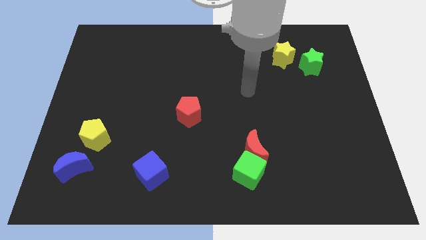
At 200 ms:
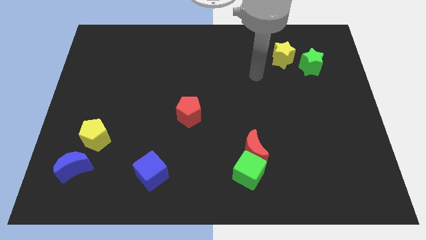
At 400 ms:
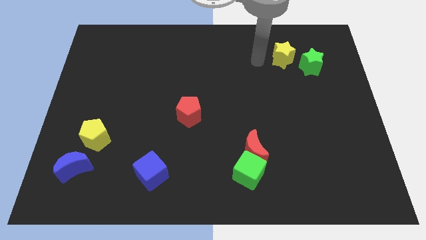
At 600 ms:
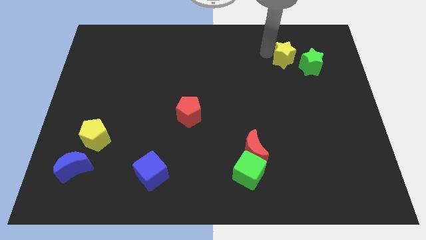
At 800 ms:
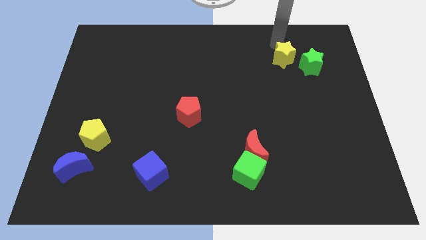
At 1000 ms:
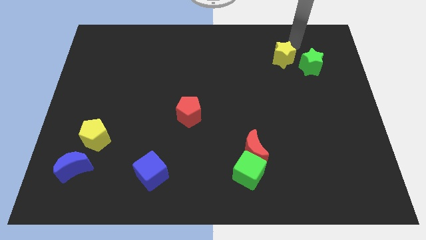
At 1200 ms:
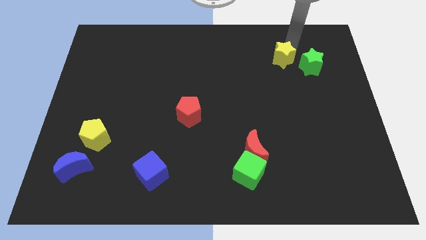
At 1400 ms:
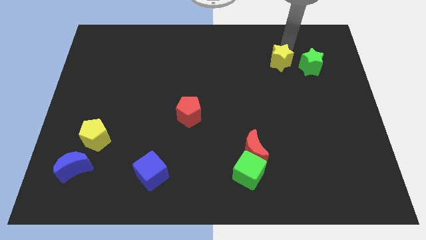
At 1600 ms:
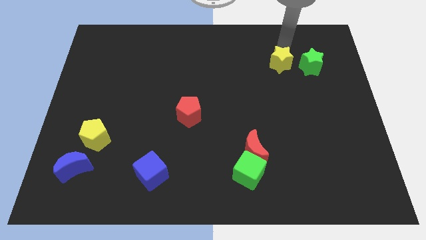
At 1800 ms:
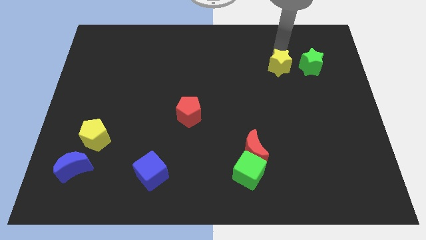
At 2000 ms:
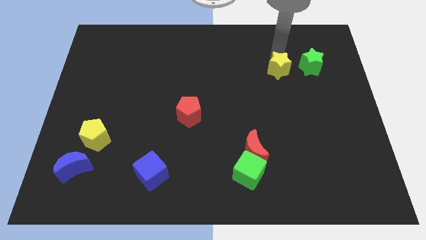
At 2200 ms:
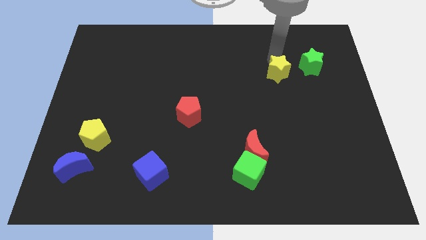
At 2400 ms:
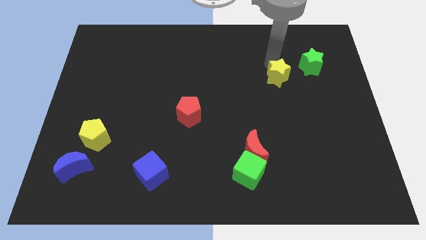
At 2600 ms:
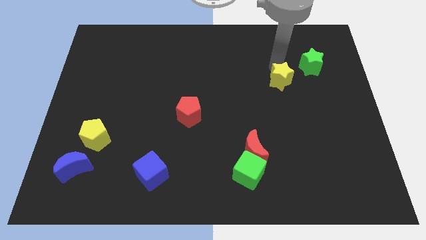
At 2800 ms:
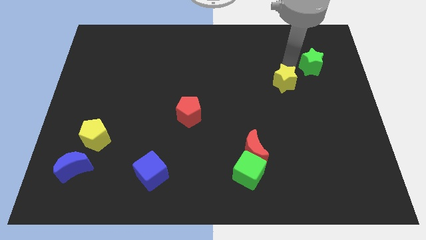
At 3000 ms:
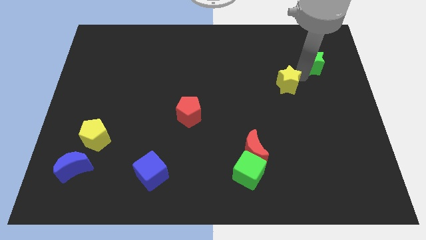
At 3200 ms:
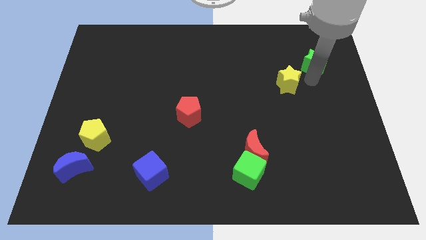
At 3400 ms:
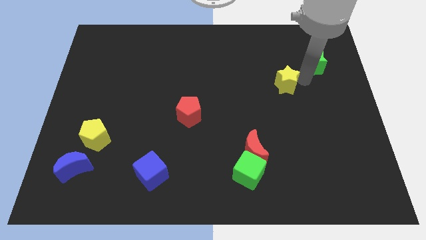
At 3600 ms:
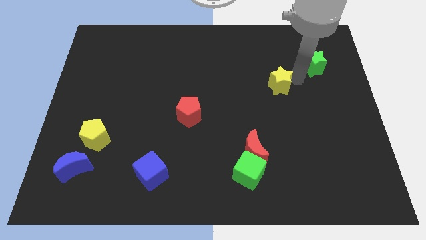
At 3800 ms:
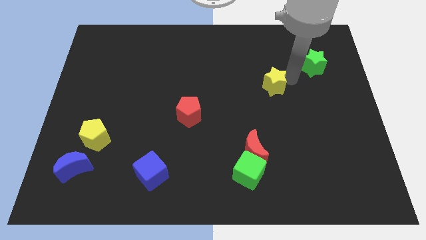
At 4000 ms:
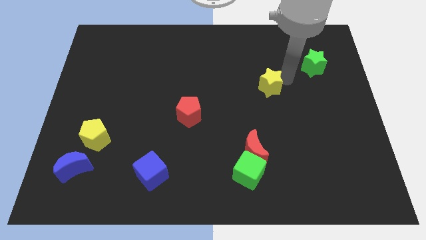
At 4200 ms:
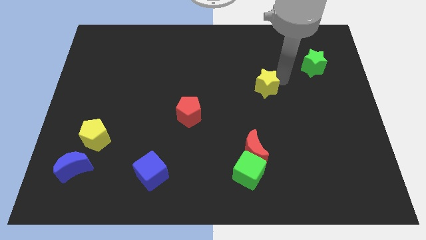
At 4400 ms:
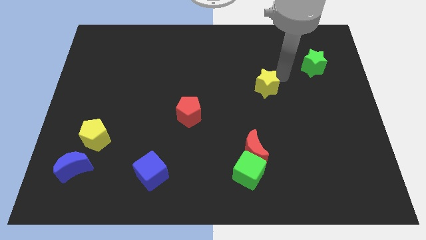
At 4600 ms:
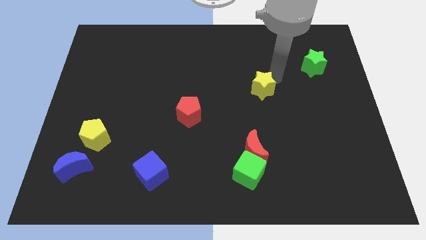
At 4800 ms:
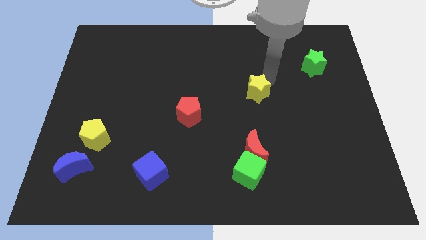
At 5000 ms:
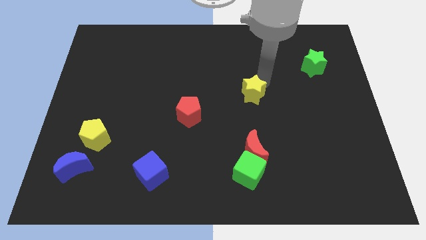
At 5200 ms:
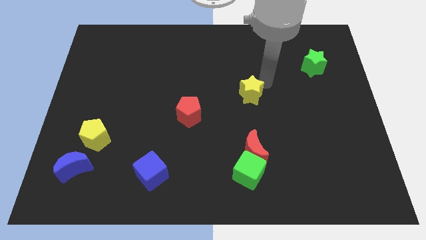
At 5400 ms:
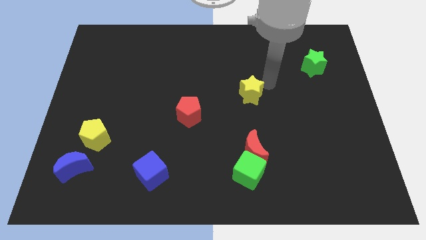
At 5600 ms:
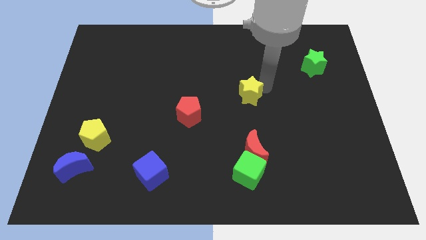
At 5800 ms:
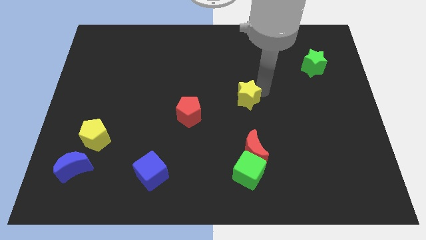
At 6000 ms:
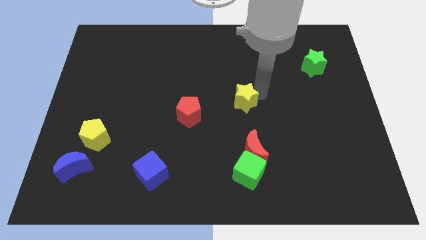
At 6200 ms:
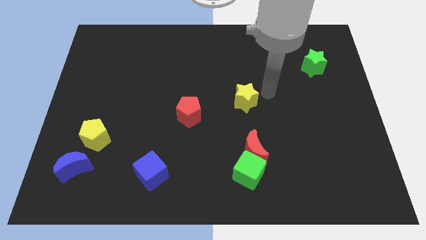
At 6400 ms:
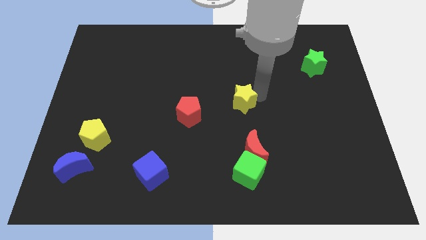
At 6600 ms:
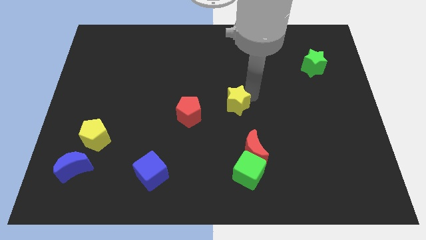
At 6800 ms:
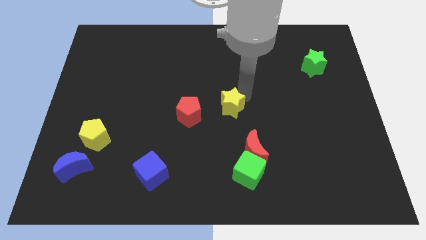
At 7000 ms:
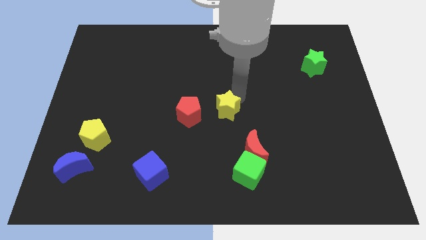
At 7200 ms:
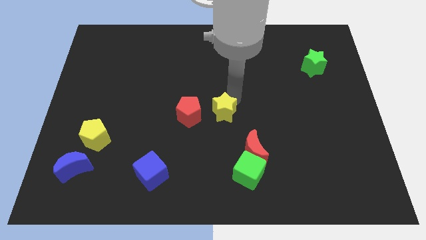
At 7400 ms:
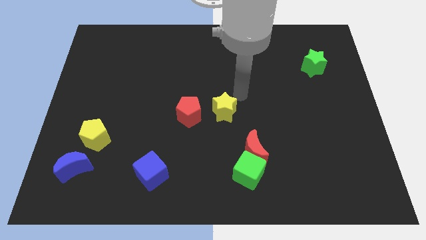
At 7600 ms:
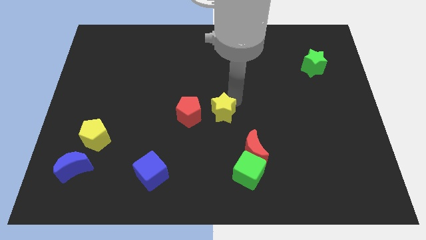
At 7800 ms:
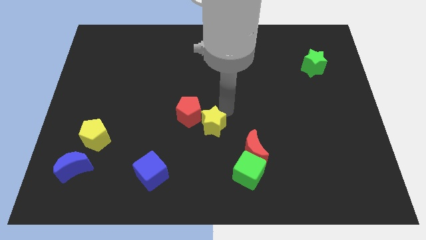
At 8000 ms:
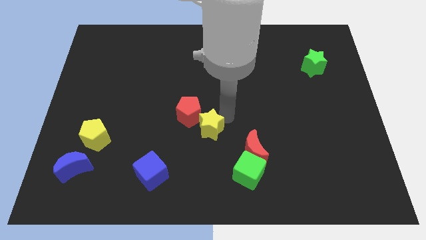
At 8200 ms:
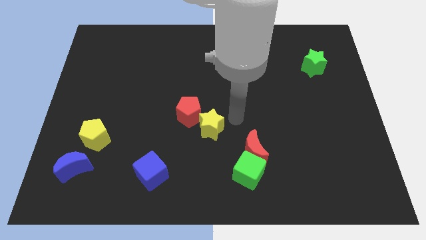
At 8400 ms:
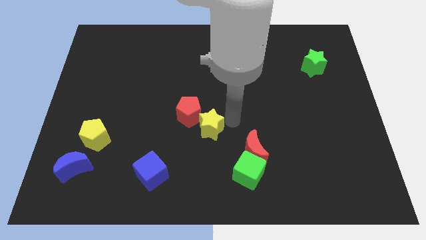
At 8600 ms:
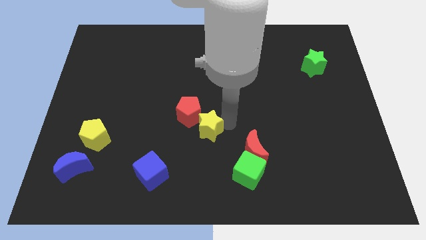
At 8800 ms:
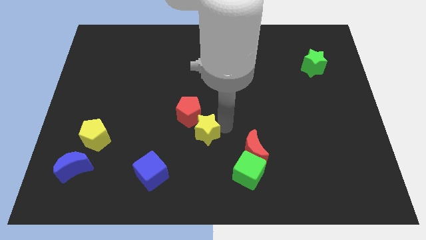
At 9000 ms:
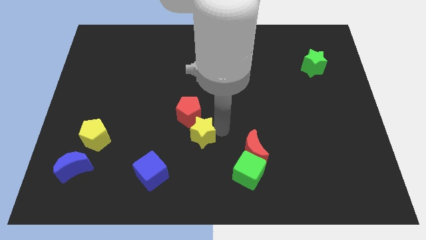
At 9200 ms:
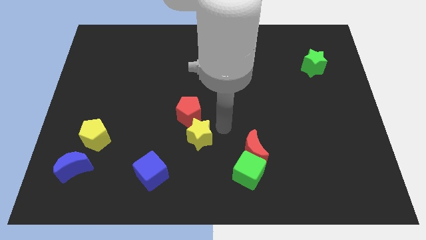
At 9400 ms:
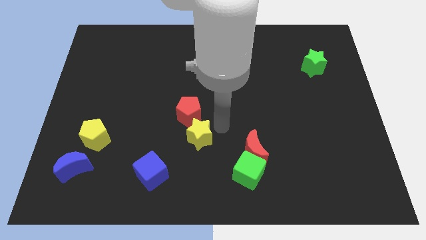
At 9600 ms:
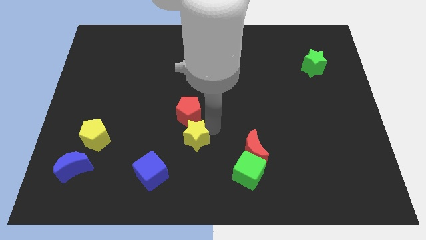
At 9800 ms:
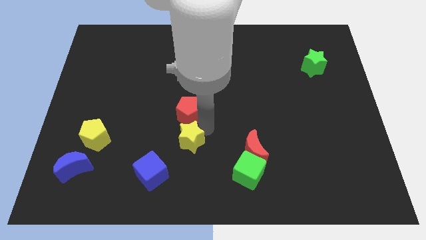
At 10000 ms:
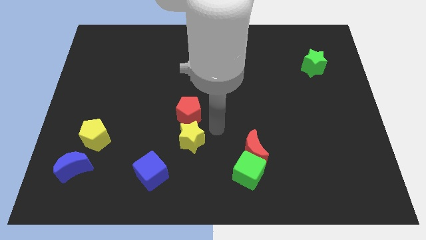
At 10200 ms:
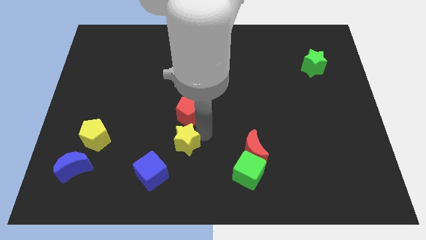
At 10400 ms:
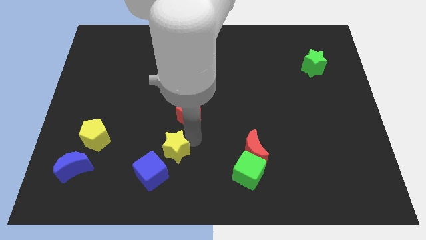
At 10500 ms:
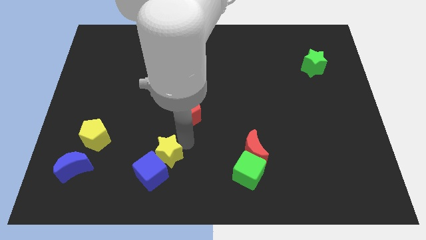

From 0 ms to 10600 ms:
move the yellow star next to the blue cube

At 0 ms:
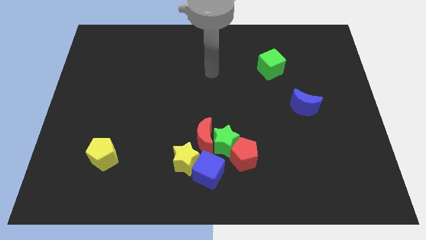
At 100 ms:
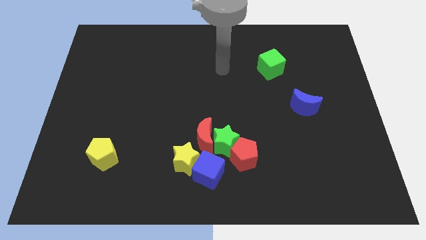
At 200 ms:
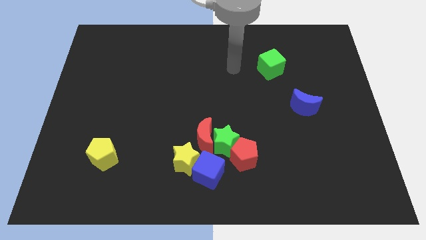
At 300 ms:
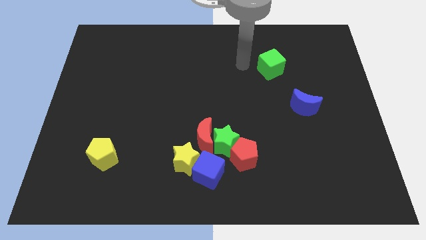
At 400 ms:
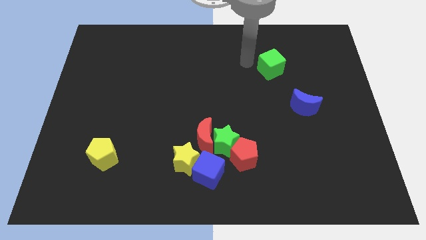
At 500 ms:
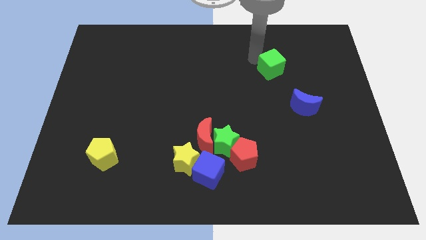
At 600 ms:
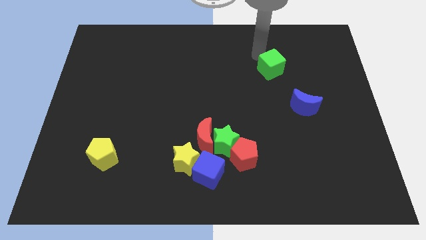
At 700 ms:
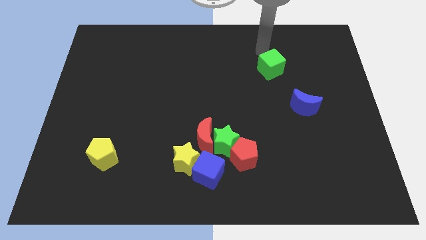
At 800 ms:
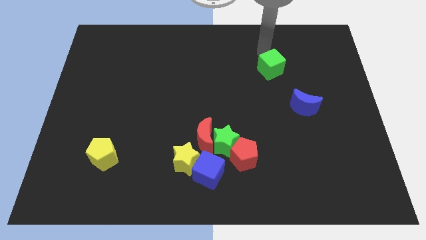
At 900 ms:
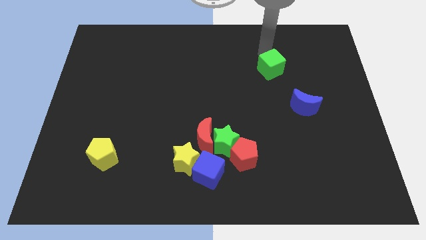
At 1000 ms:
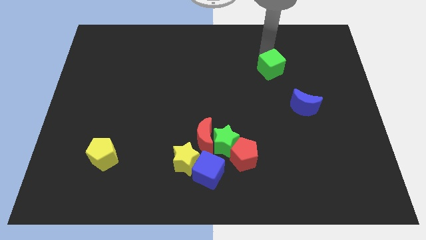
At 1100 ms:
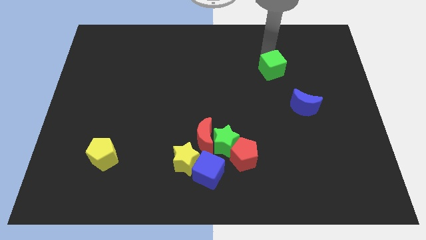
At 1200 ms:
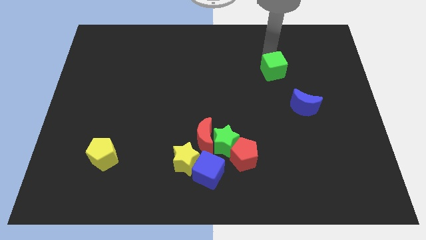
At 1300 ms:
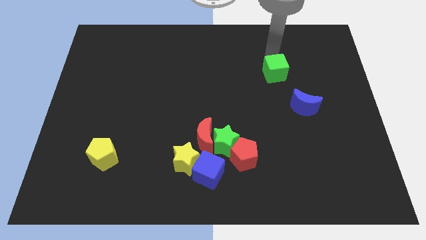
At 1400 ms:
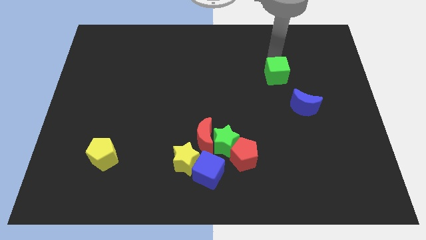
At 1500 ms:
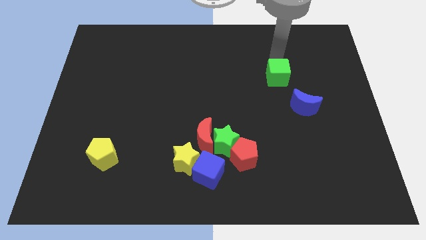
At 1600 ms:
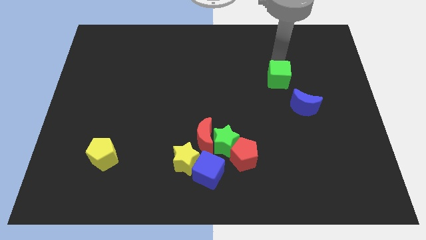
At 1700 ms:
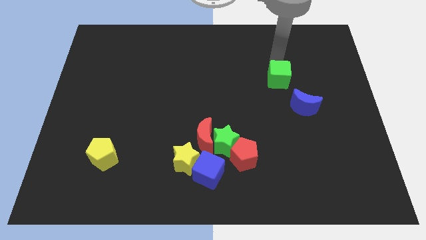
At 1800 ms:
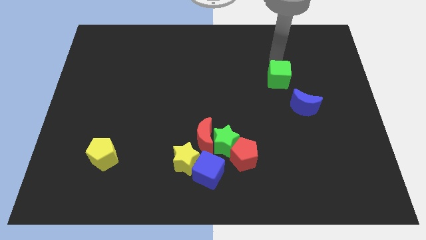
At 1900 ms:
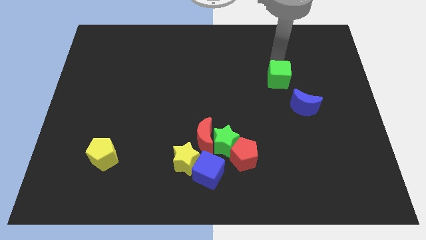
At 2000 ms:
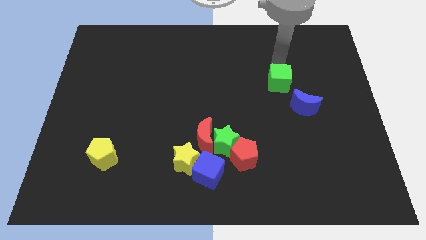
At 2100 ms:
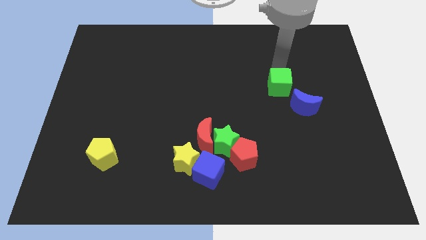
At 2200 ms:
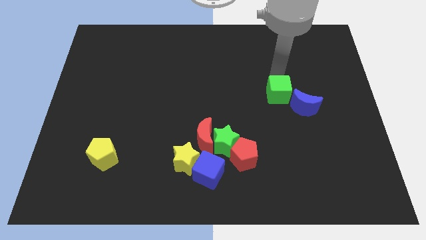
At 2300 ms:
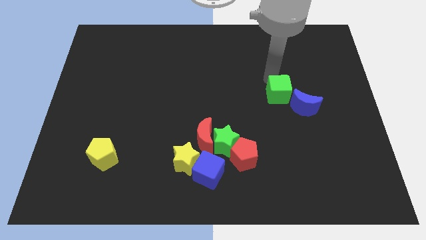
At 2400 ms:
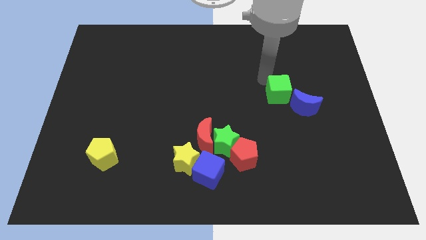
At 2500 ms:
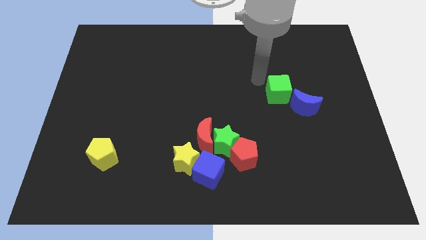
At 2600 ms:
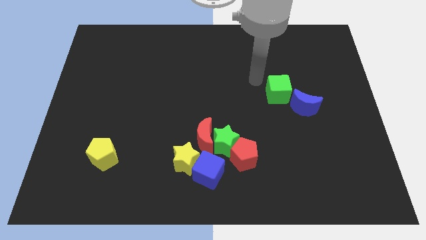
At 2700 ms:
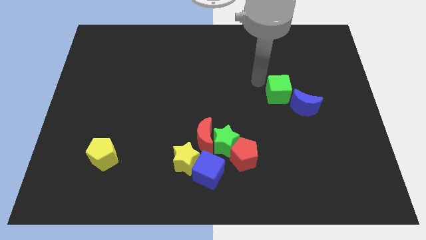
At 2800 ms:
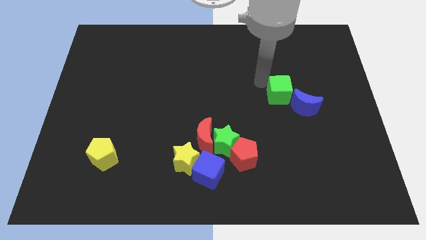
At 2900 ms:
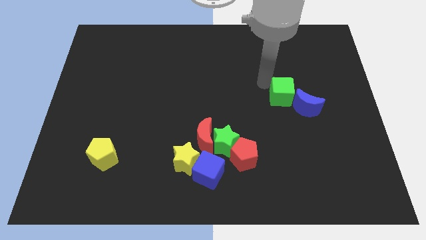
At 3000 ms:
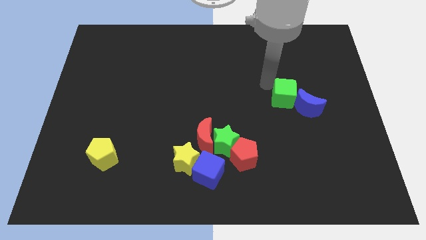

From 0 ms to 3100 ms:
put the green cube close to the blue moon

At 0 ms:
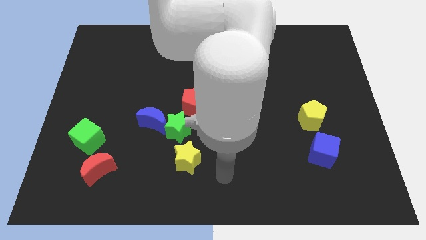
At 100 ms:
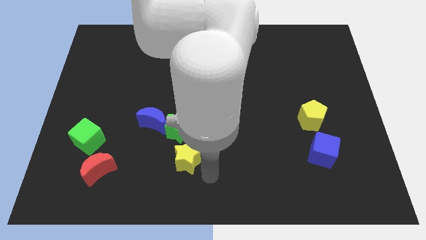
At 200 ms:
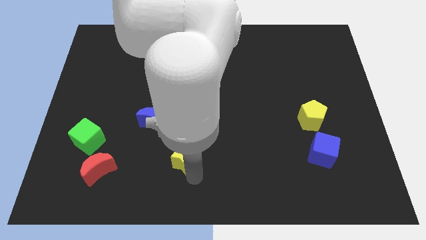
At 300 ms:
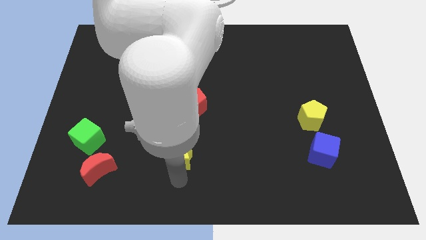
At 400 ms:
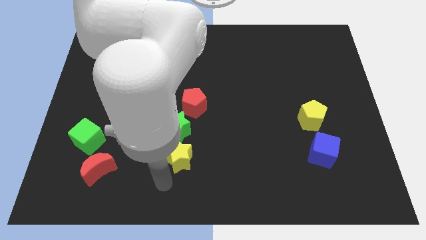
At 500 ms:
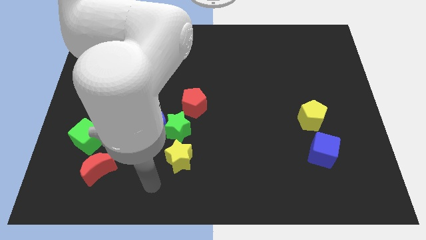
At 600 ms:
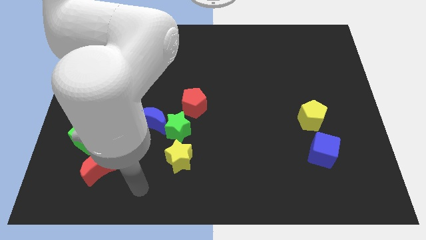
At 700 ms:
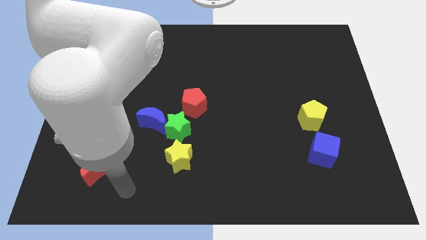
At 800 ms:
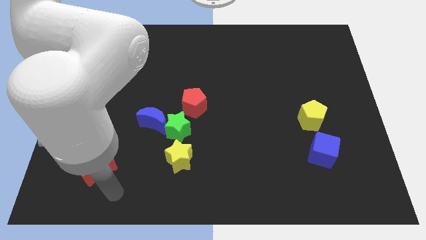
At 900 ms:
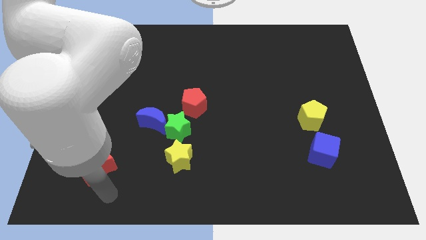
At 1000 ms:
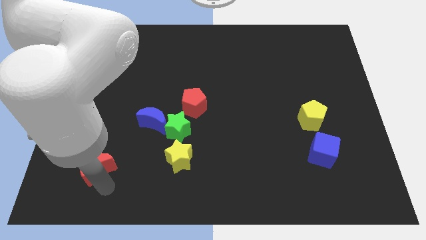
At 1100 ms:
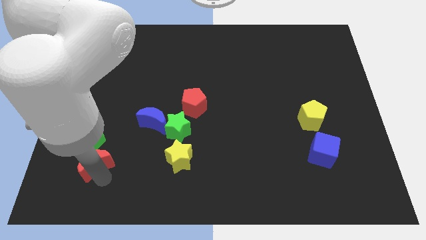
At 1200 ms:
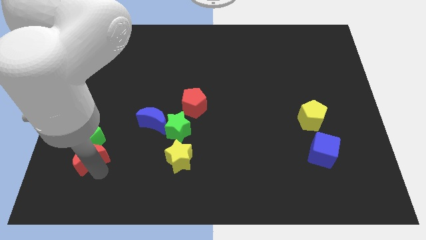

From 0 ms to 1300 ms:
put the red moon close to the green cube
